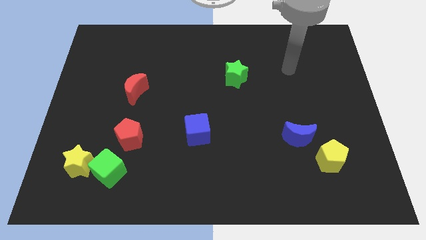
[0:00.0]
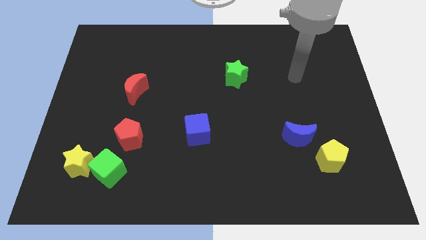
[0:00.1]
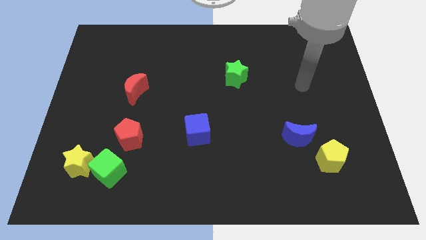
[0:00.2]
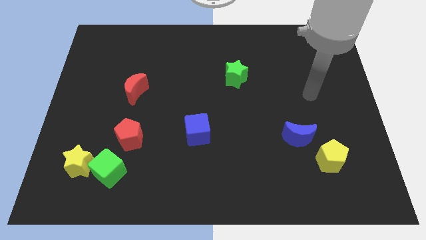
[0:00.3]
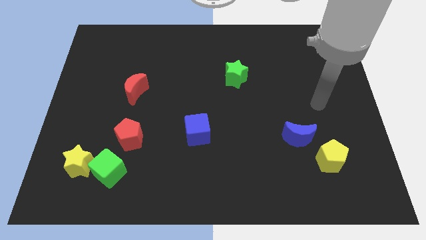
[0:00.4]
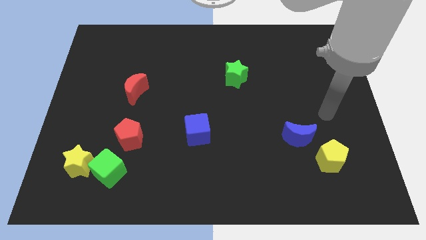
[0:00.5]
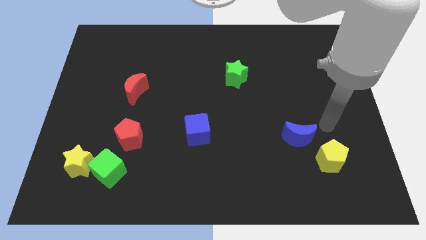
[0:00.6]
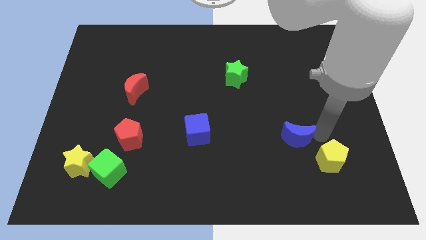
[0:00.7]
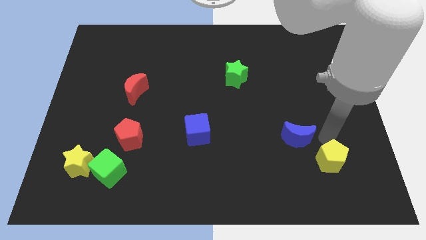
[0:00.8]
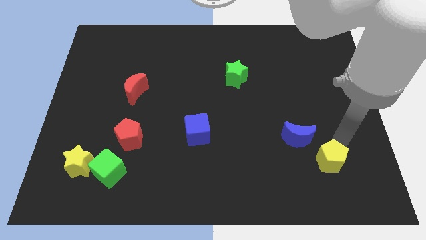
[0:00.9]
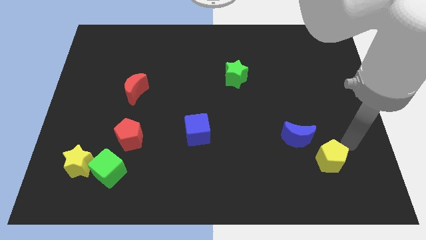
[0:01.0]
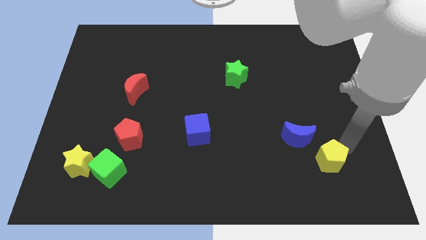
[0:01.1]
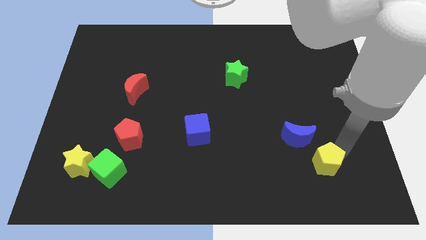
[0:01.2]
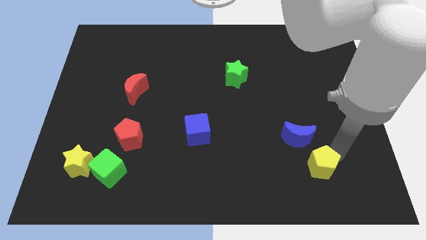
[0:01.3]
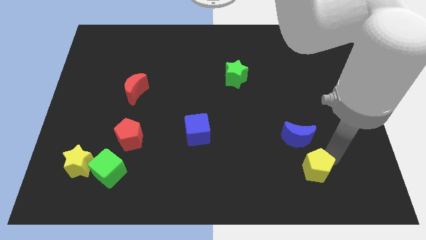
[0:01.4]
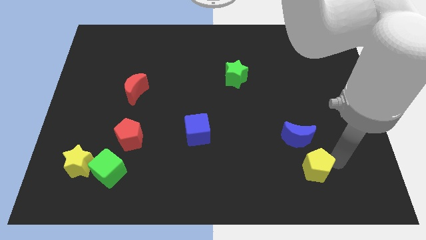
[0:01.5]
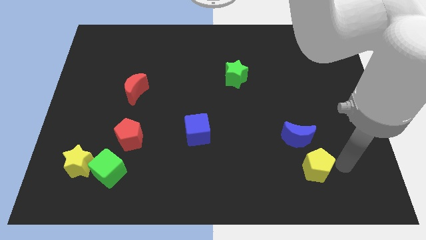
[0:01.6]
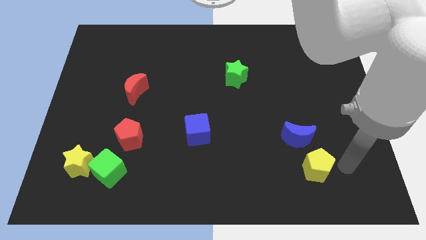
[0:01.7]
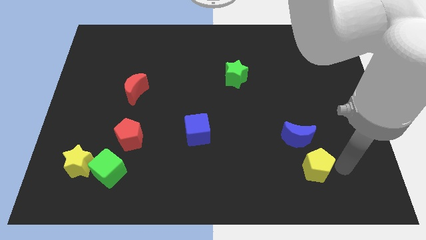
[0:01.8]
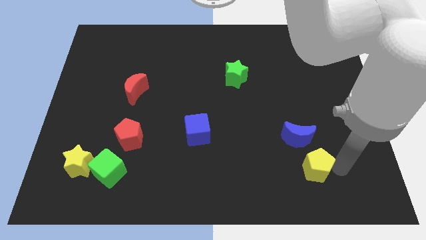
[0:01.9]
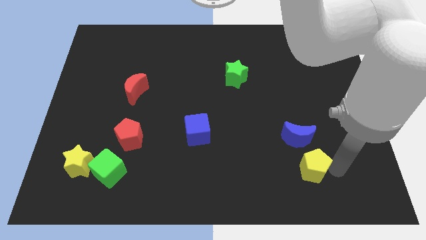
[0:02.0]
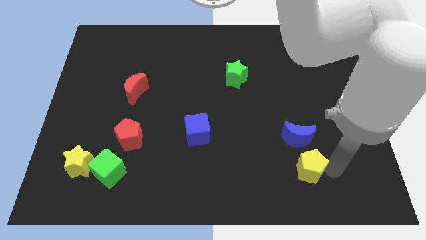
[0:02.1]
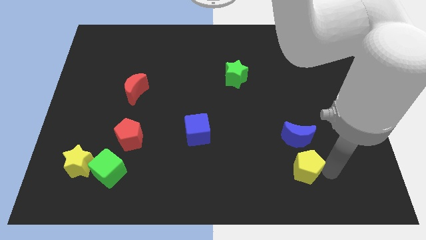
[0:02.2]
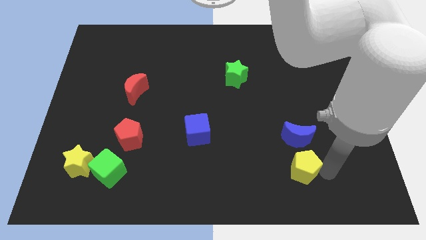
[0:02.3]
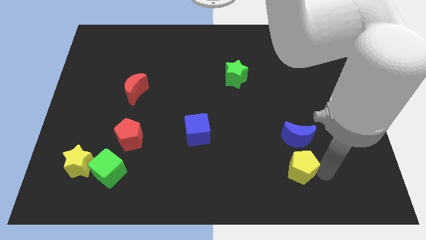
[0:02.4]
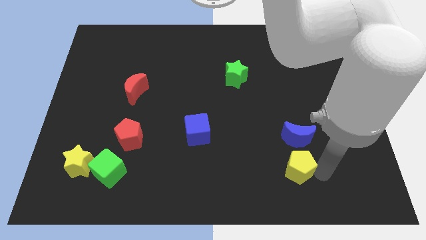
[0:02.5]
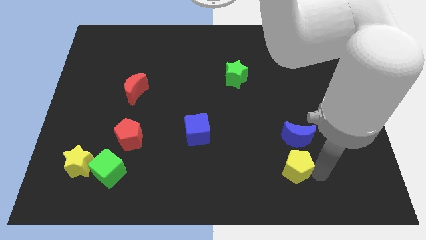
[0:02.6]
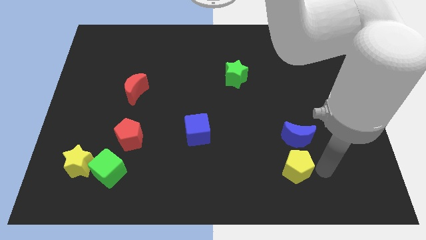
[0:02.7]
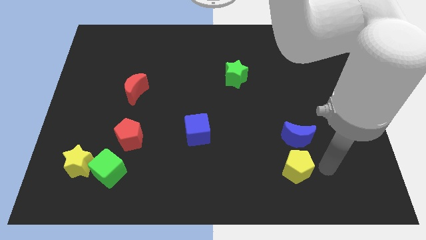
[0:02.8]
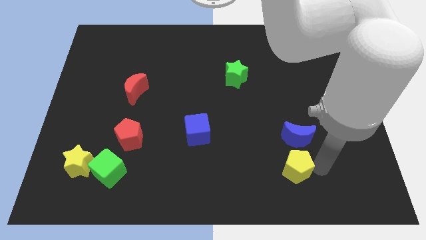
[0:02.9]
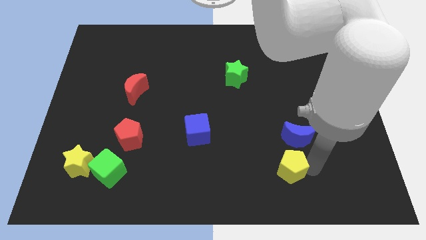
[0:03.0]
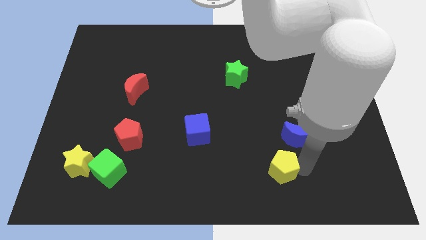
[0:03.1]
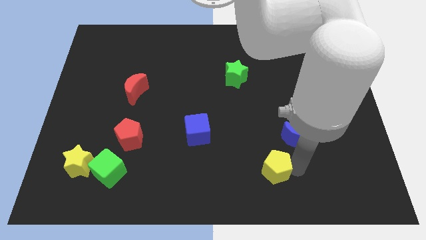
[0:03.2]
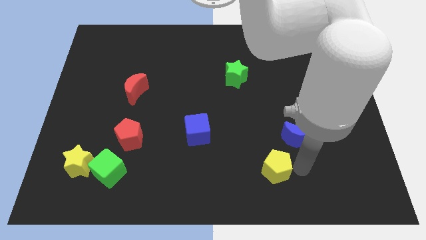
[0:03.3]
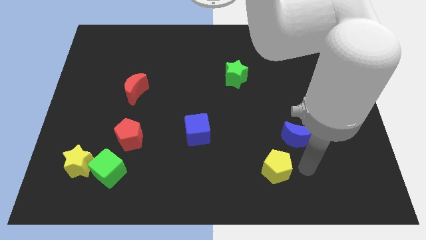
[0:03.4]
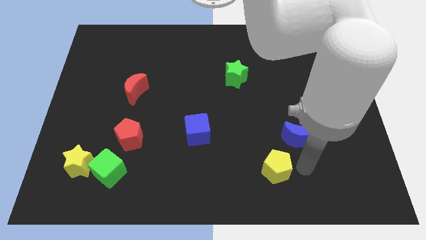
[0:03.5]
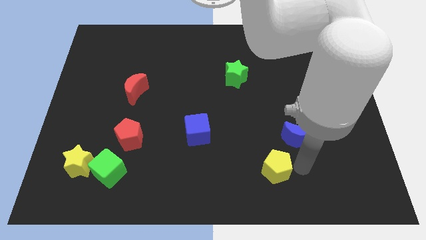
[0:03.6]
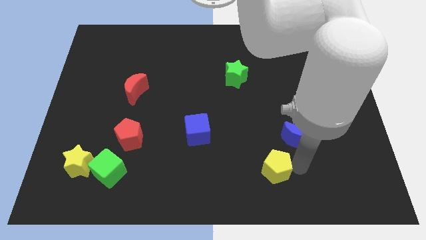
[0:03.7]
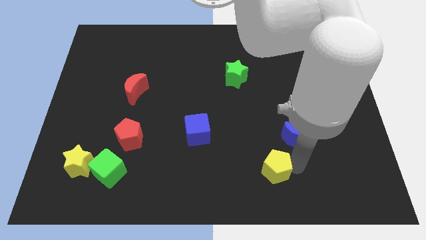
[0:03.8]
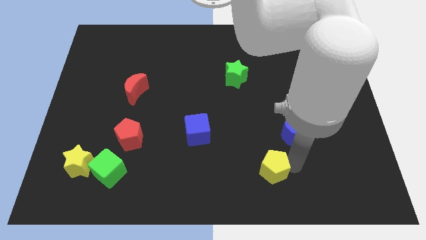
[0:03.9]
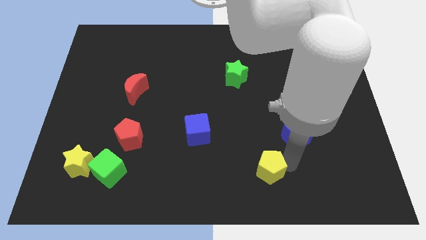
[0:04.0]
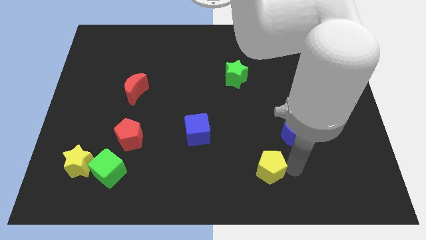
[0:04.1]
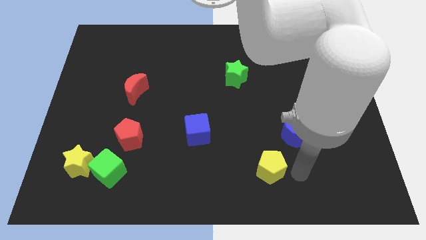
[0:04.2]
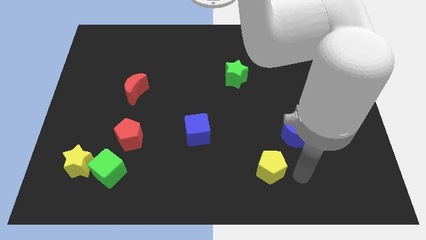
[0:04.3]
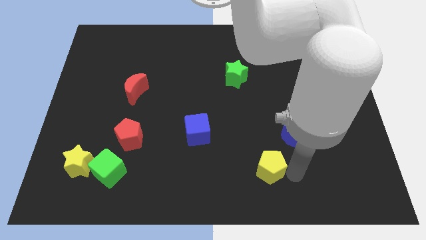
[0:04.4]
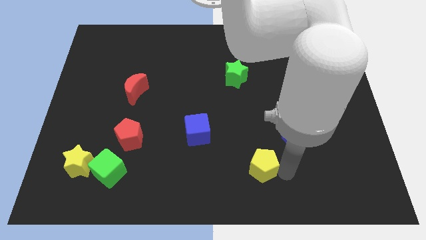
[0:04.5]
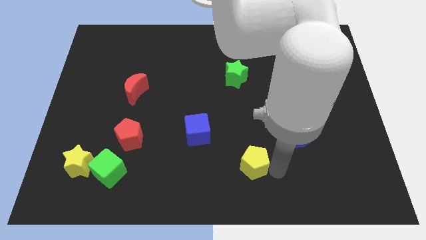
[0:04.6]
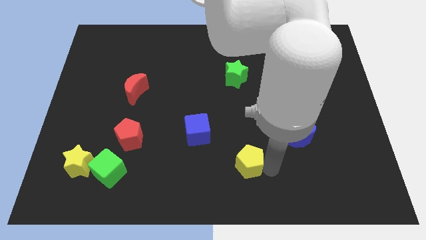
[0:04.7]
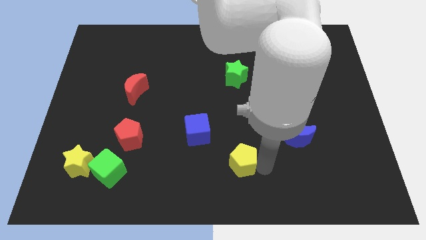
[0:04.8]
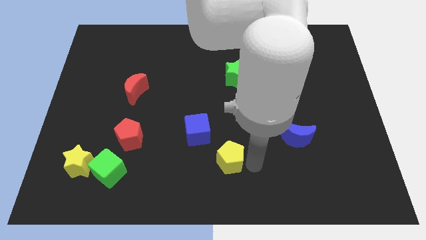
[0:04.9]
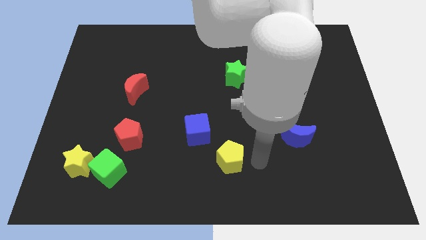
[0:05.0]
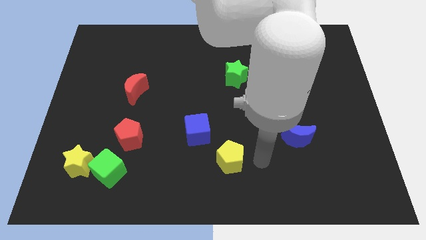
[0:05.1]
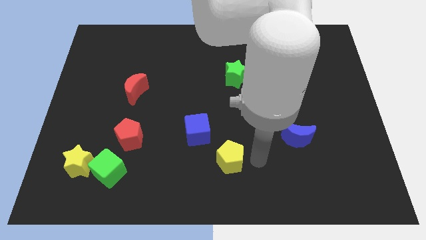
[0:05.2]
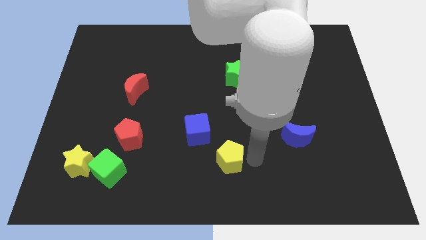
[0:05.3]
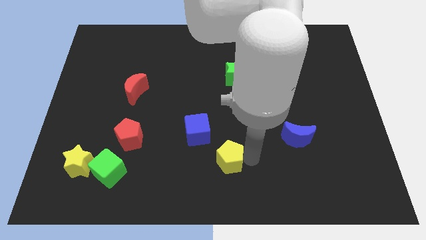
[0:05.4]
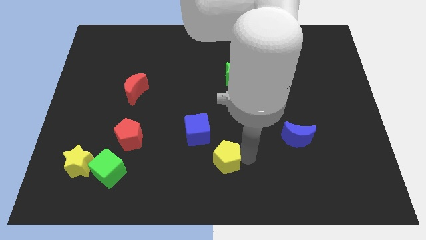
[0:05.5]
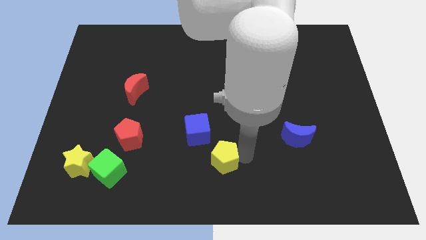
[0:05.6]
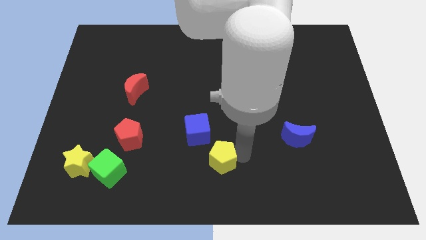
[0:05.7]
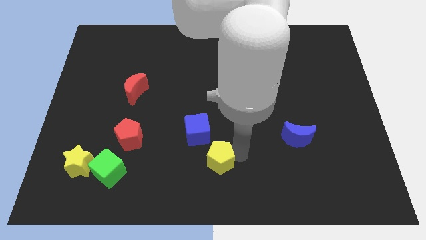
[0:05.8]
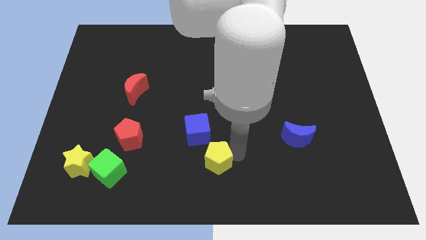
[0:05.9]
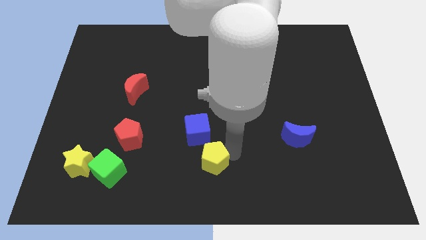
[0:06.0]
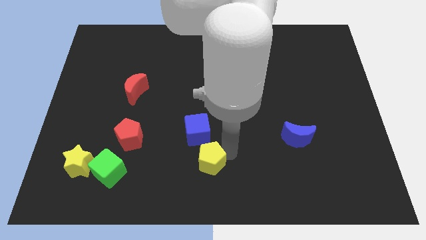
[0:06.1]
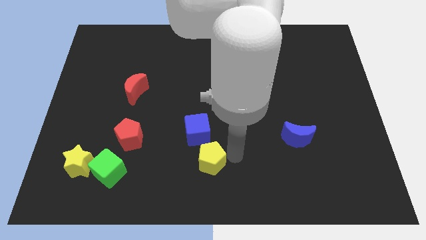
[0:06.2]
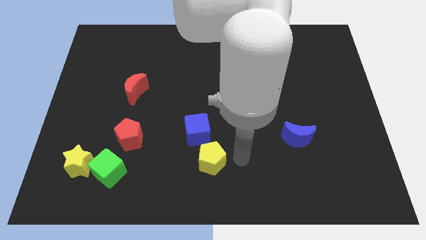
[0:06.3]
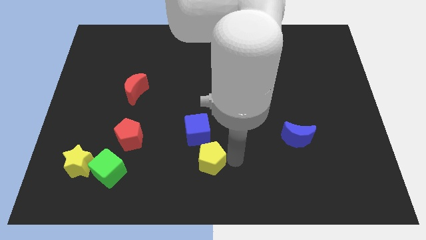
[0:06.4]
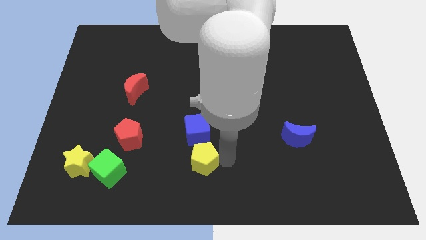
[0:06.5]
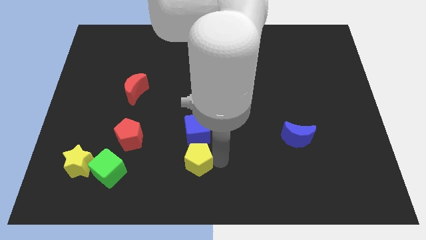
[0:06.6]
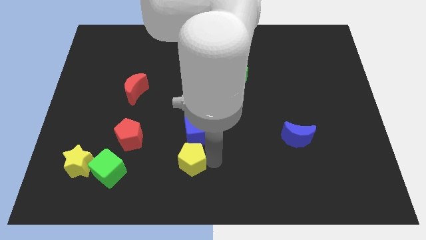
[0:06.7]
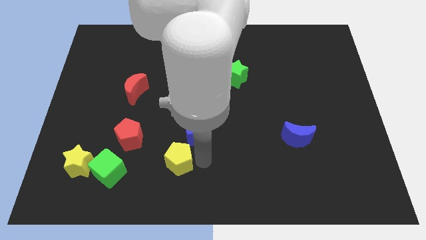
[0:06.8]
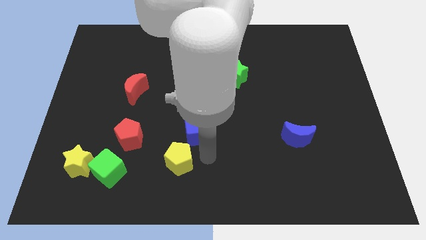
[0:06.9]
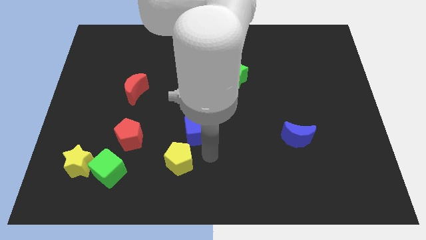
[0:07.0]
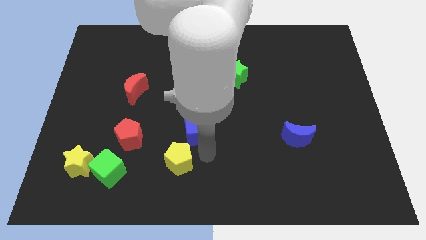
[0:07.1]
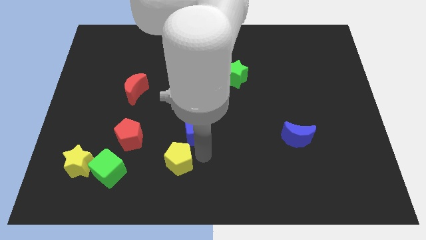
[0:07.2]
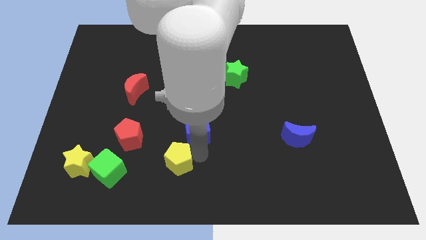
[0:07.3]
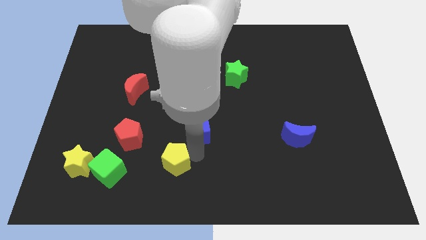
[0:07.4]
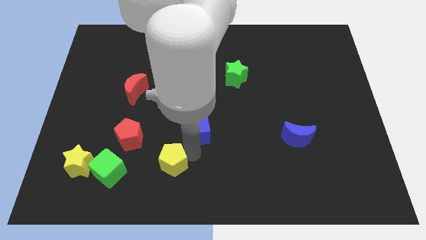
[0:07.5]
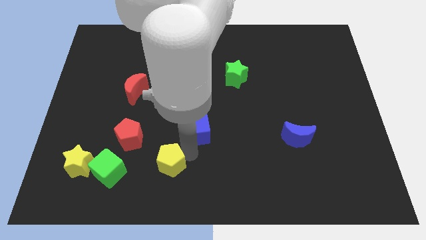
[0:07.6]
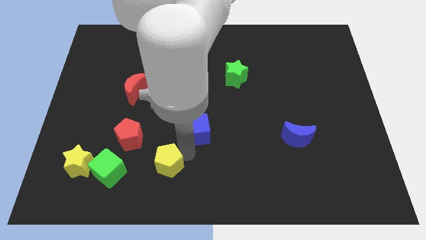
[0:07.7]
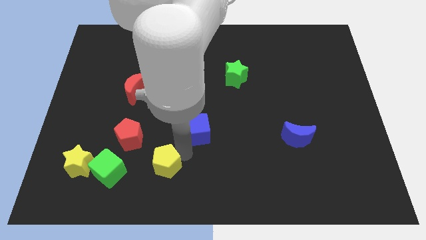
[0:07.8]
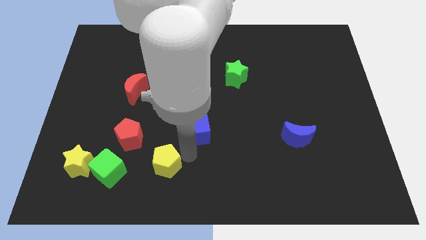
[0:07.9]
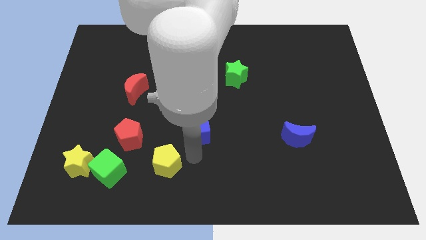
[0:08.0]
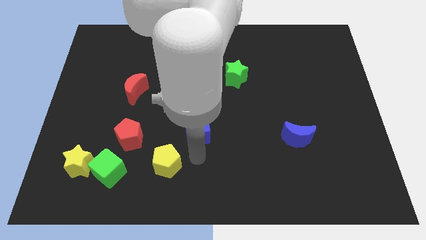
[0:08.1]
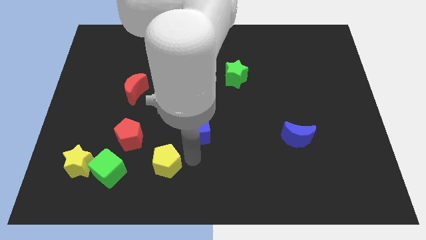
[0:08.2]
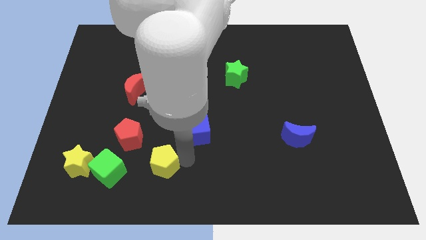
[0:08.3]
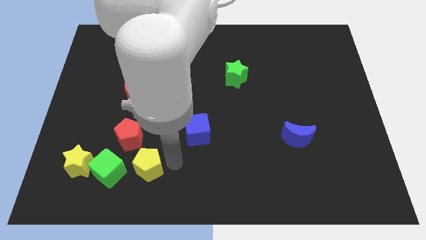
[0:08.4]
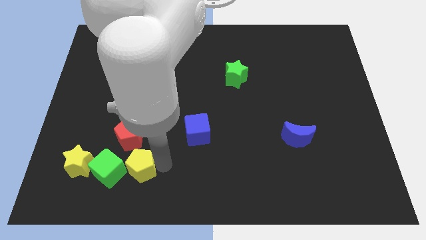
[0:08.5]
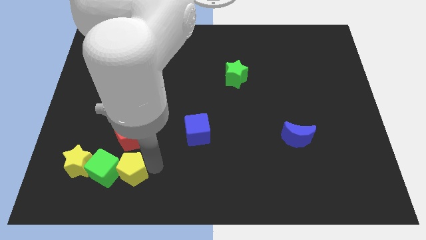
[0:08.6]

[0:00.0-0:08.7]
move the yellow pentagon towards the green cube
